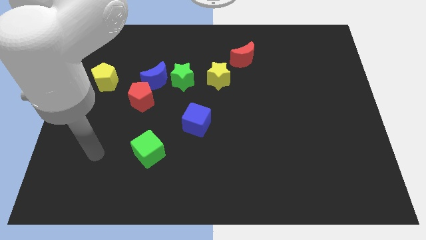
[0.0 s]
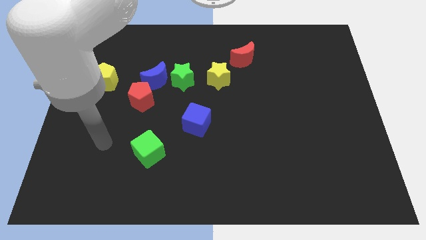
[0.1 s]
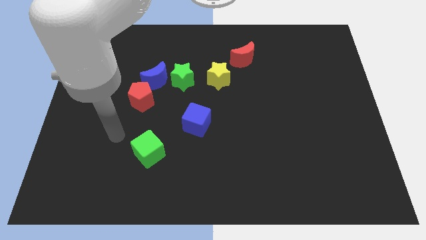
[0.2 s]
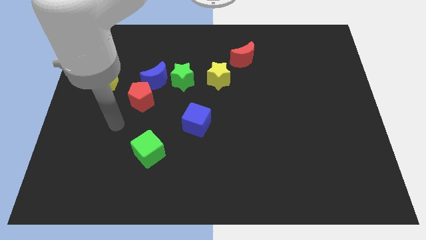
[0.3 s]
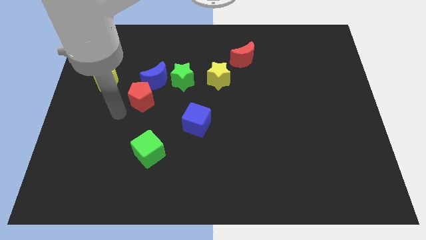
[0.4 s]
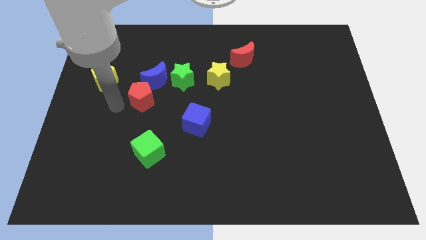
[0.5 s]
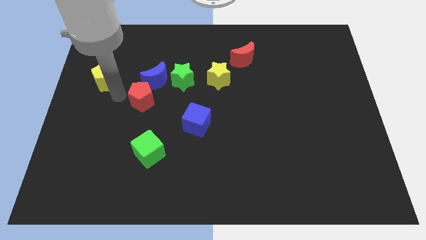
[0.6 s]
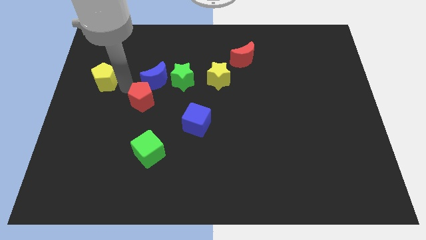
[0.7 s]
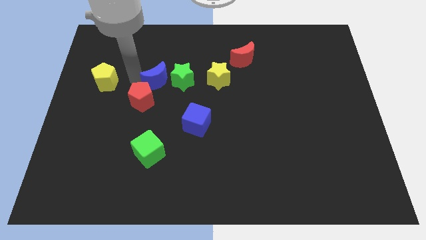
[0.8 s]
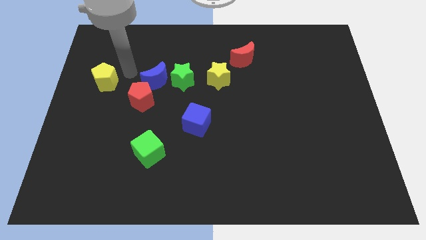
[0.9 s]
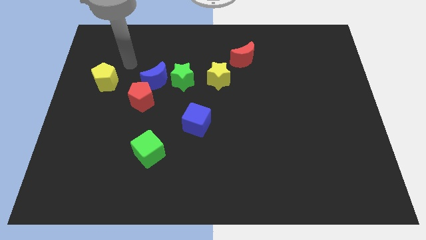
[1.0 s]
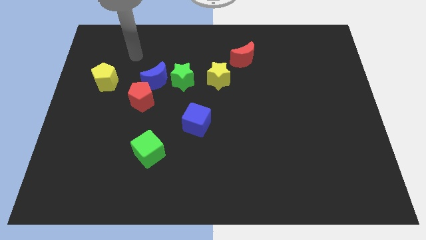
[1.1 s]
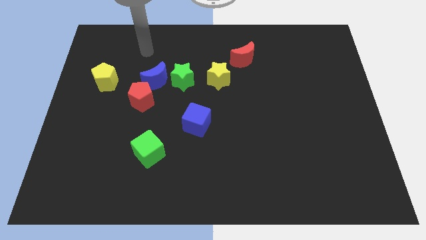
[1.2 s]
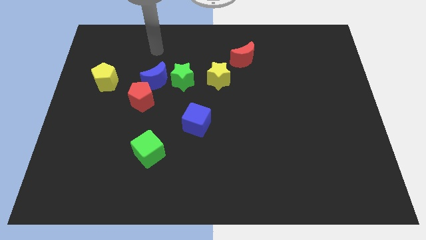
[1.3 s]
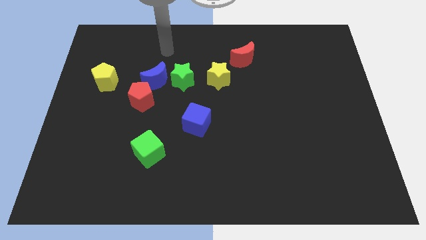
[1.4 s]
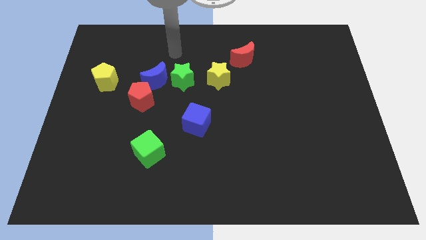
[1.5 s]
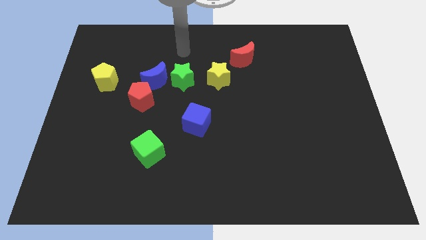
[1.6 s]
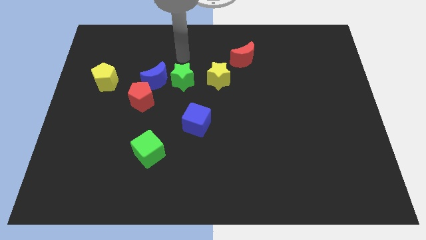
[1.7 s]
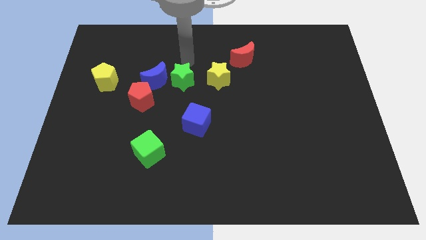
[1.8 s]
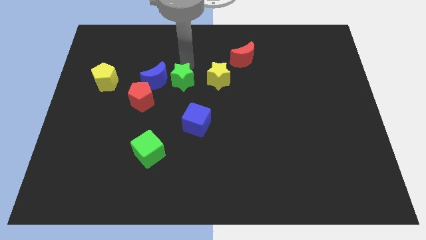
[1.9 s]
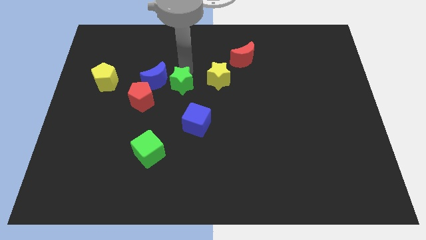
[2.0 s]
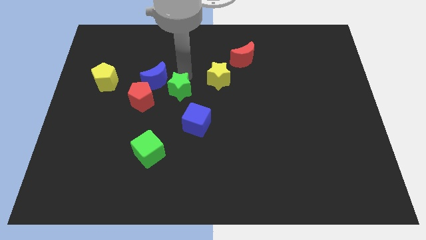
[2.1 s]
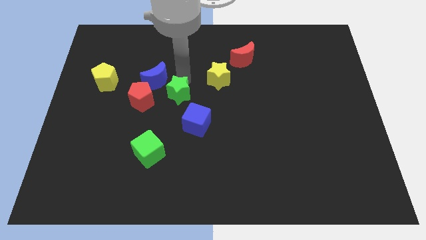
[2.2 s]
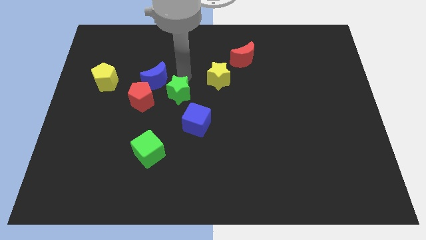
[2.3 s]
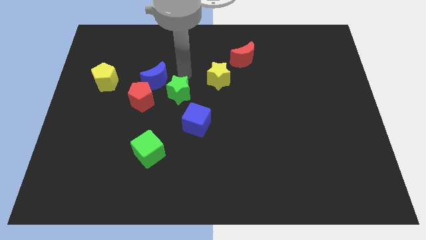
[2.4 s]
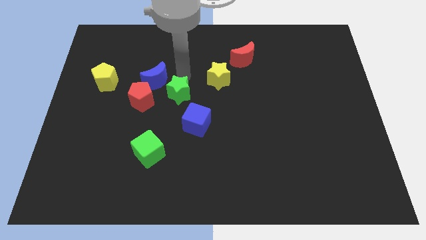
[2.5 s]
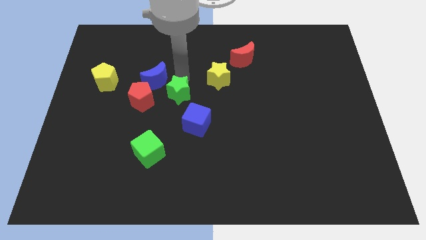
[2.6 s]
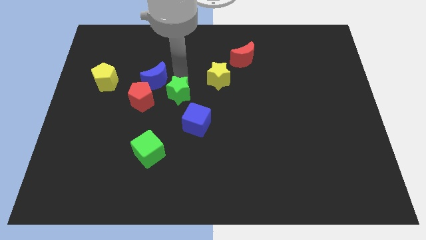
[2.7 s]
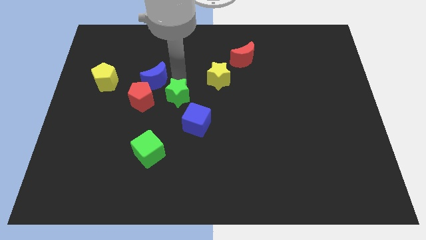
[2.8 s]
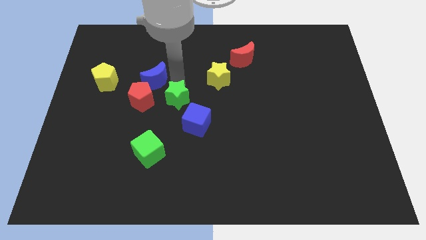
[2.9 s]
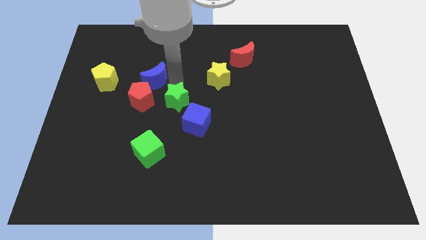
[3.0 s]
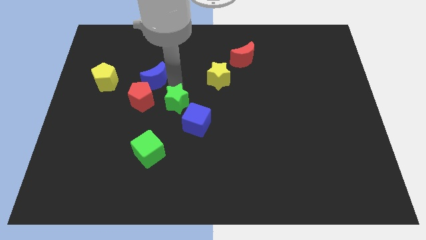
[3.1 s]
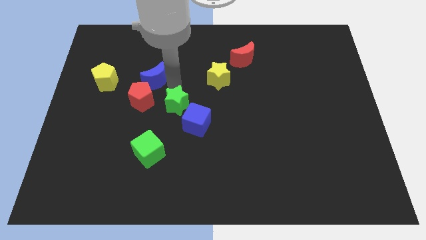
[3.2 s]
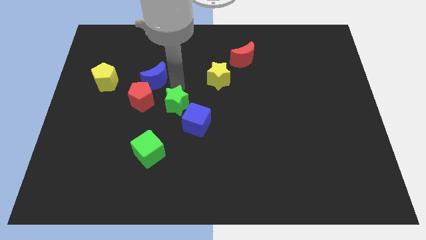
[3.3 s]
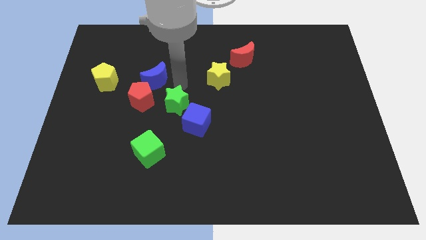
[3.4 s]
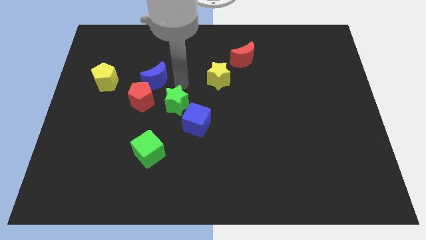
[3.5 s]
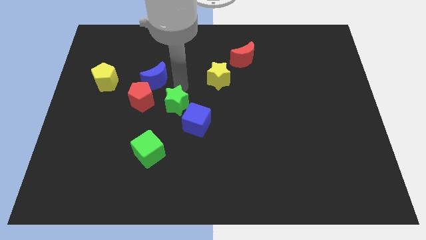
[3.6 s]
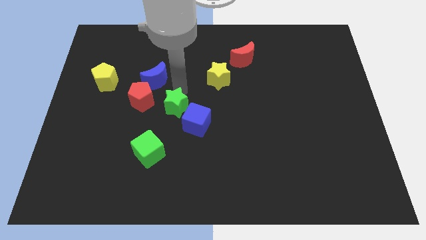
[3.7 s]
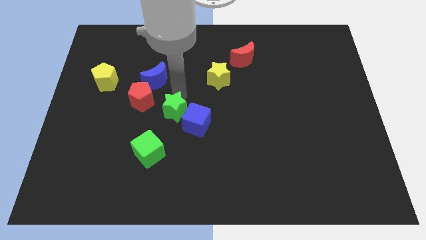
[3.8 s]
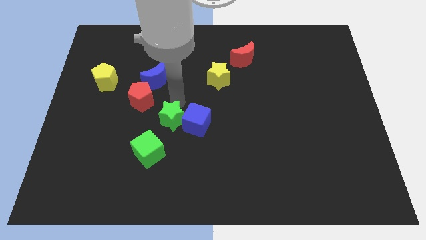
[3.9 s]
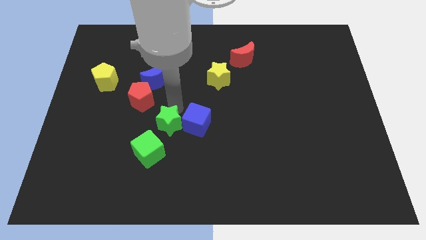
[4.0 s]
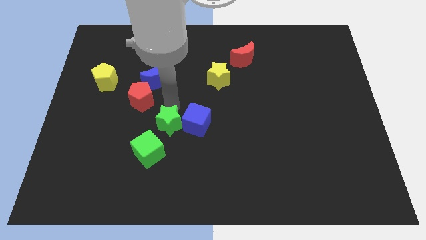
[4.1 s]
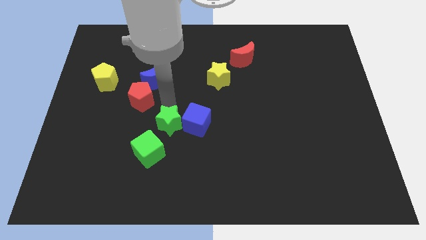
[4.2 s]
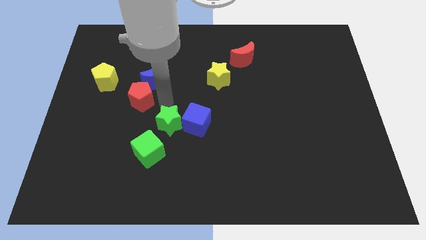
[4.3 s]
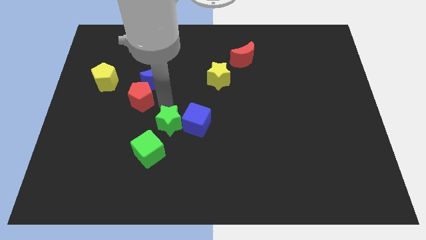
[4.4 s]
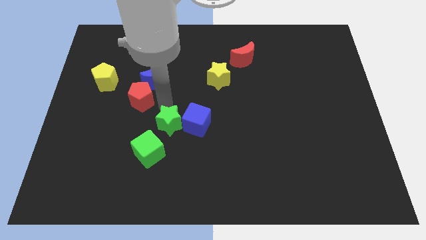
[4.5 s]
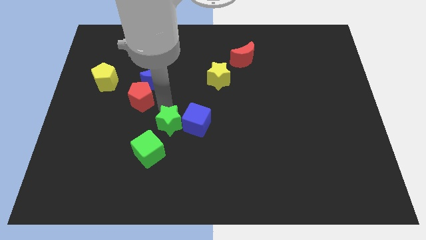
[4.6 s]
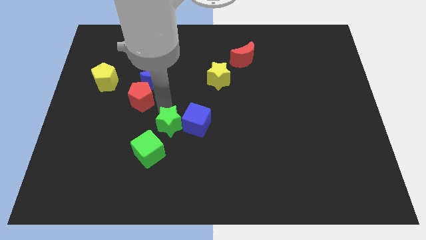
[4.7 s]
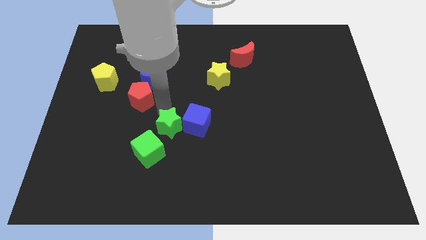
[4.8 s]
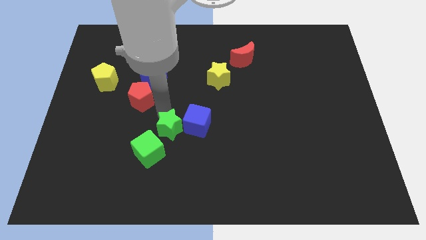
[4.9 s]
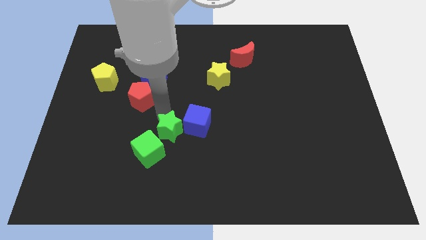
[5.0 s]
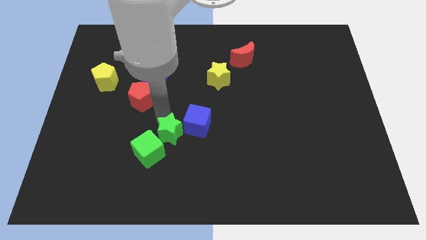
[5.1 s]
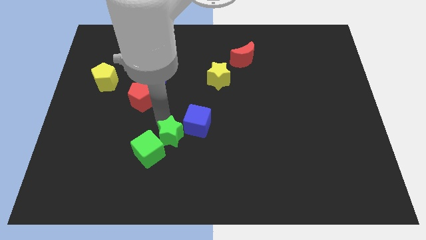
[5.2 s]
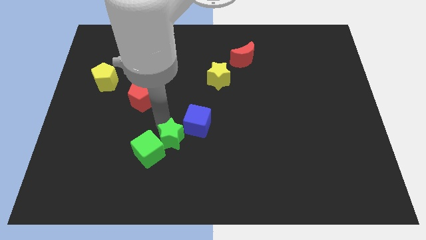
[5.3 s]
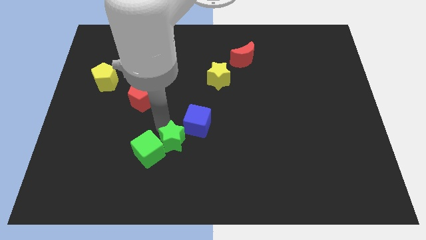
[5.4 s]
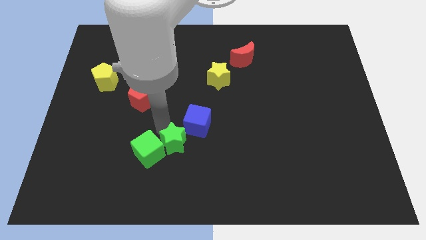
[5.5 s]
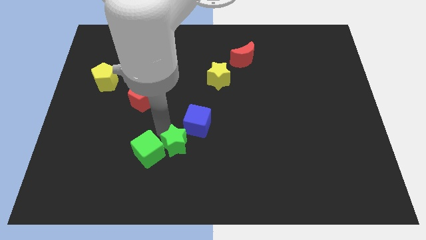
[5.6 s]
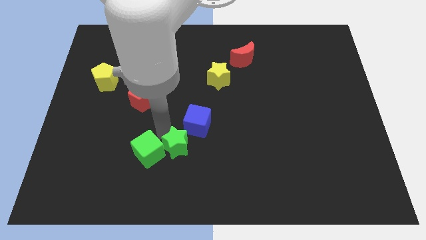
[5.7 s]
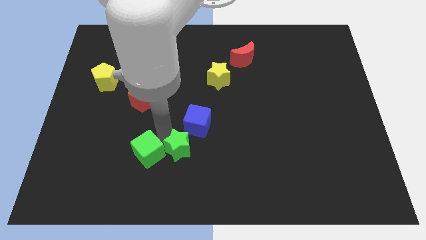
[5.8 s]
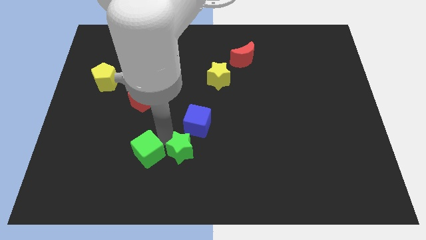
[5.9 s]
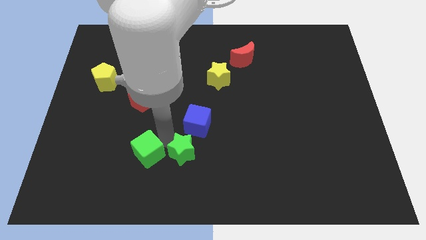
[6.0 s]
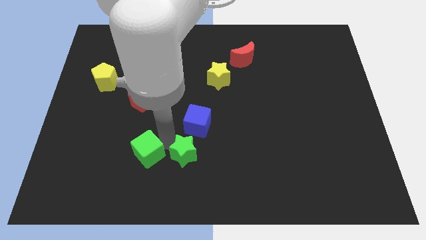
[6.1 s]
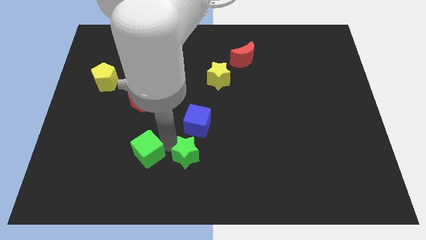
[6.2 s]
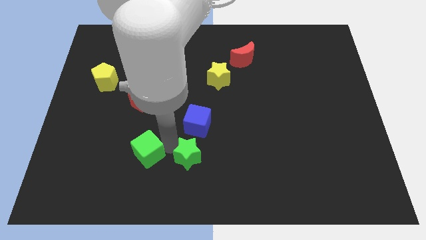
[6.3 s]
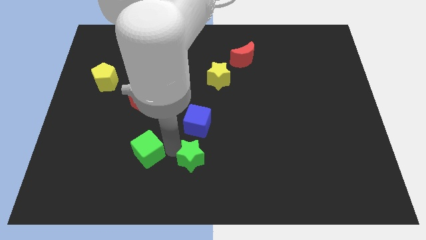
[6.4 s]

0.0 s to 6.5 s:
put the green star to the bottom

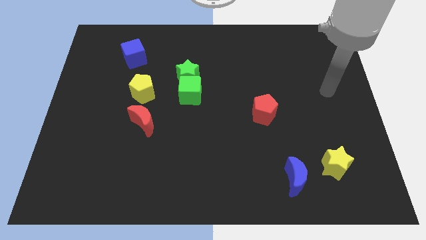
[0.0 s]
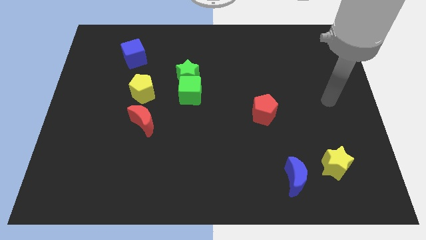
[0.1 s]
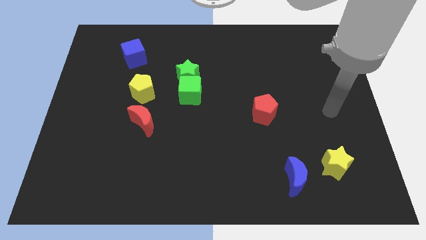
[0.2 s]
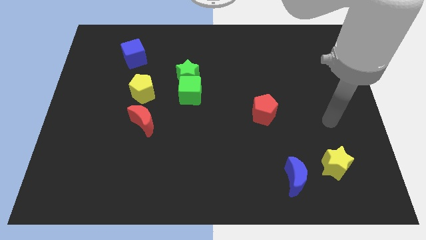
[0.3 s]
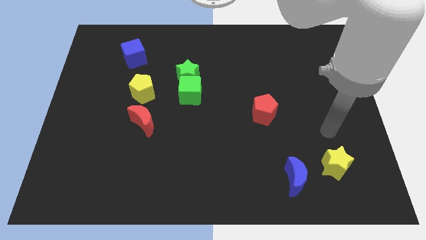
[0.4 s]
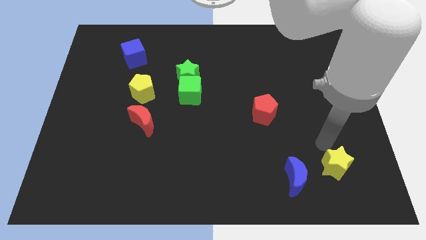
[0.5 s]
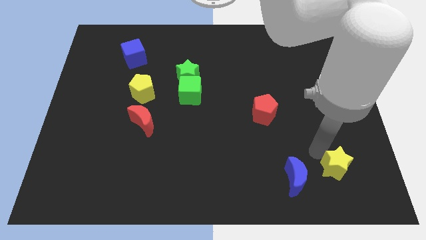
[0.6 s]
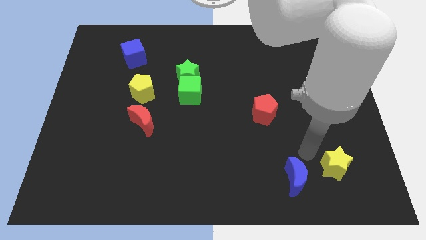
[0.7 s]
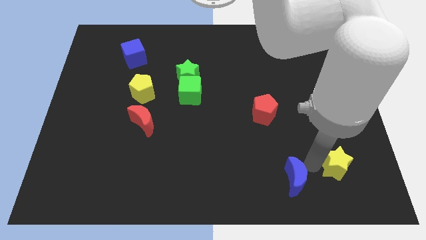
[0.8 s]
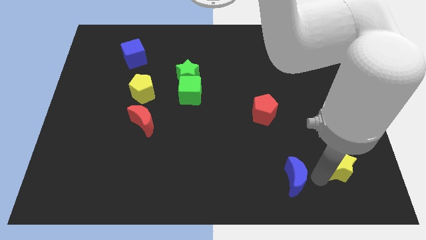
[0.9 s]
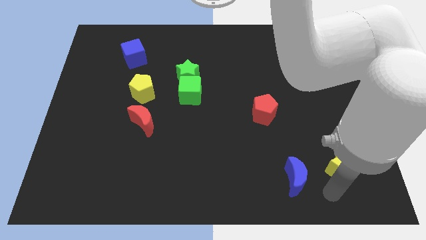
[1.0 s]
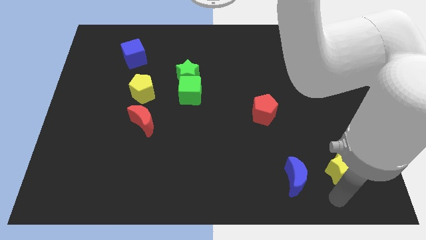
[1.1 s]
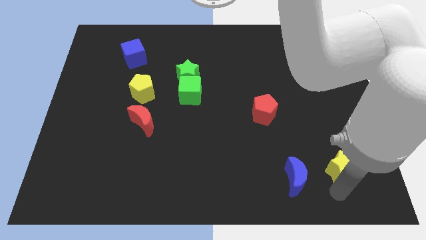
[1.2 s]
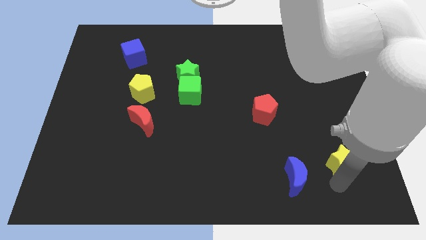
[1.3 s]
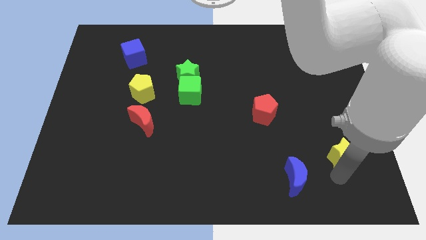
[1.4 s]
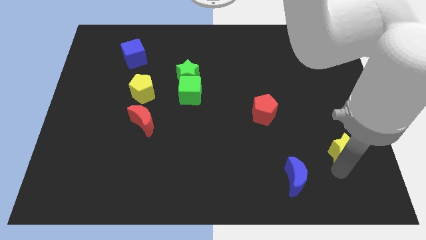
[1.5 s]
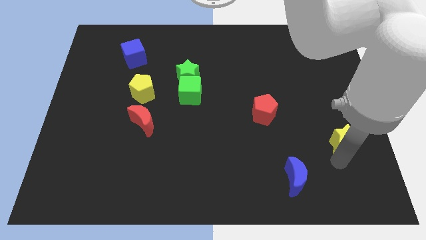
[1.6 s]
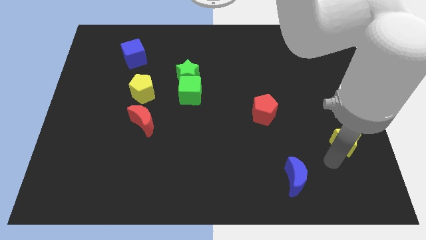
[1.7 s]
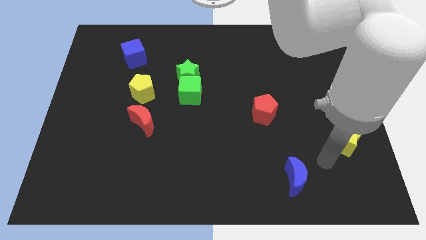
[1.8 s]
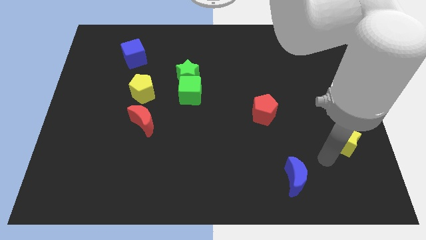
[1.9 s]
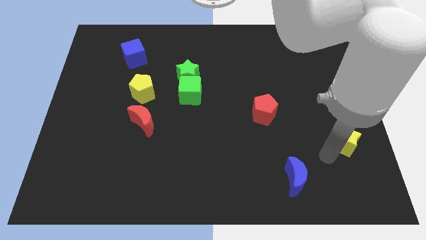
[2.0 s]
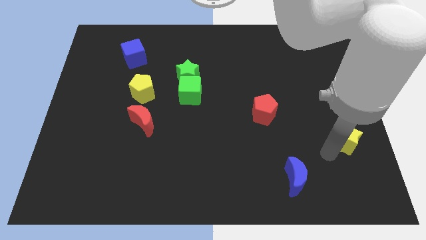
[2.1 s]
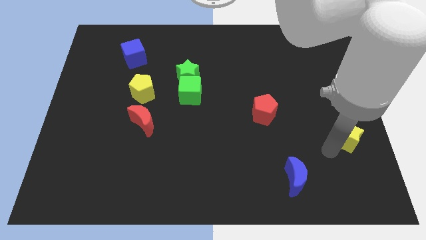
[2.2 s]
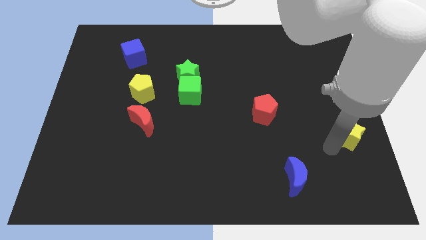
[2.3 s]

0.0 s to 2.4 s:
slide the yellow star to the center right
